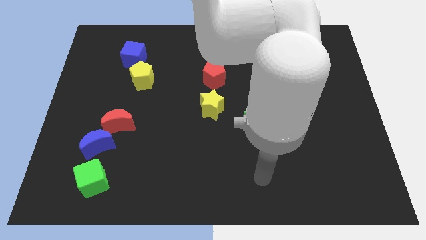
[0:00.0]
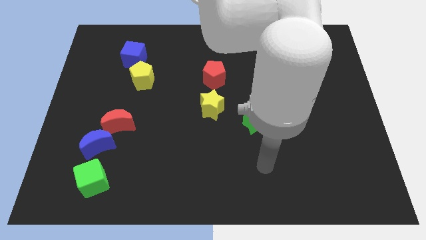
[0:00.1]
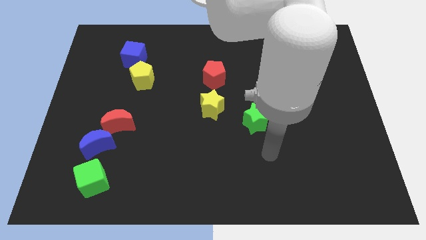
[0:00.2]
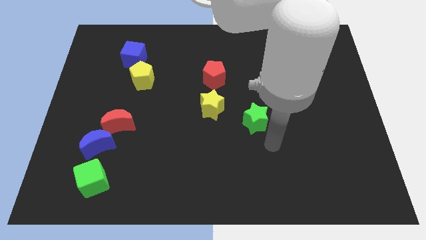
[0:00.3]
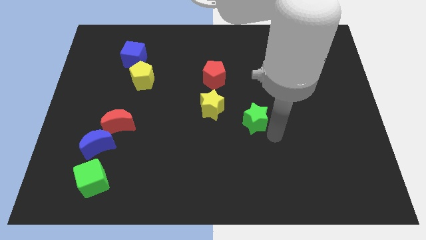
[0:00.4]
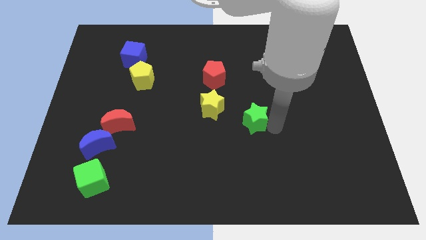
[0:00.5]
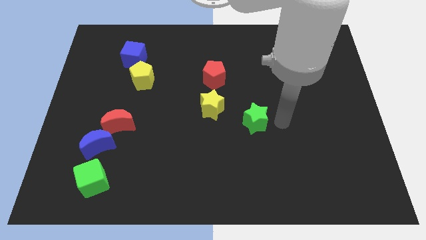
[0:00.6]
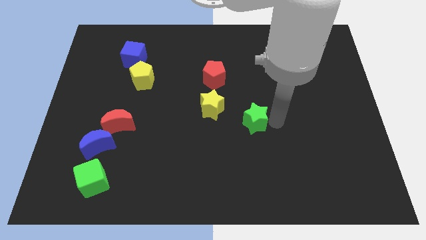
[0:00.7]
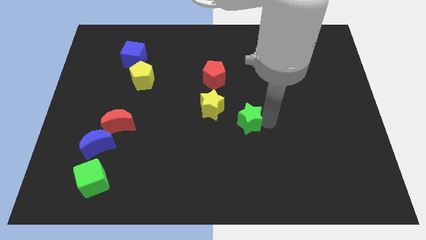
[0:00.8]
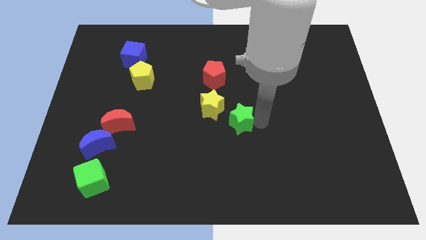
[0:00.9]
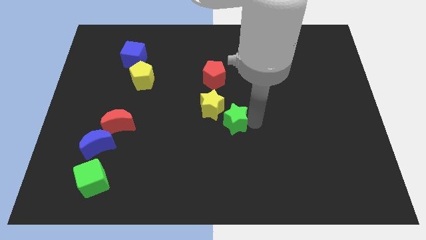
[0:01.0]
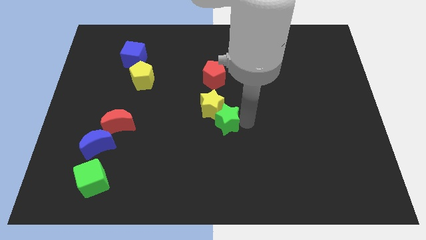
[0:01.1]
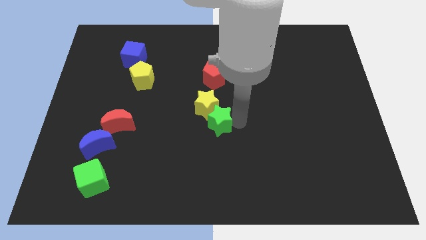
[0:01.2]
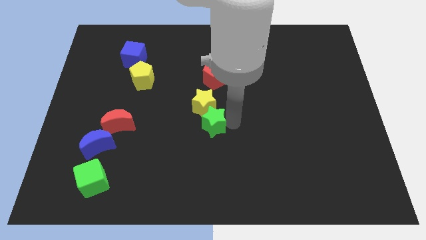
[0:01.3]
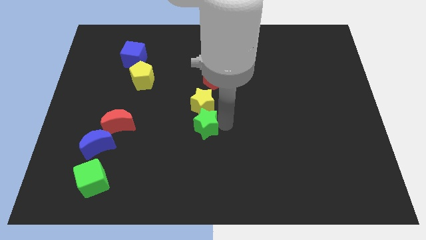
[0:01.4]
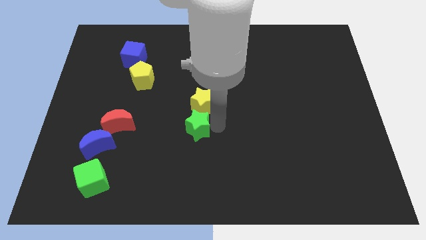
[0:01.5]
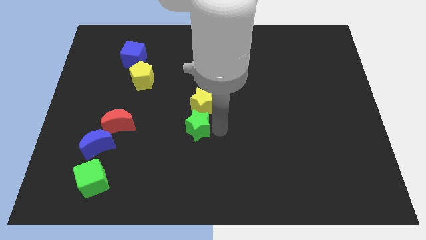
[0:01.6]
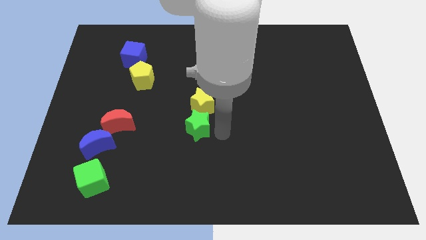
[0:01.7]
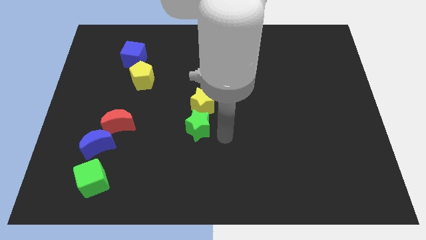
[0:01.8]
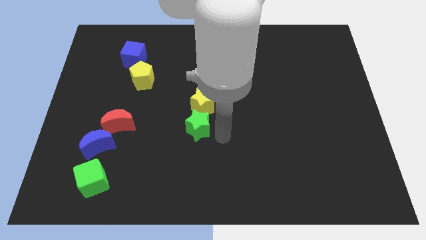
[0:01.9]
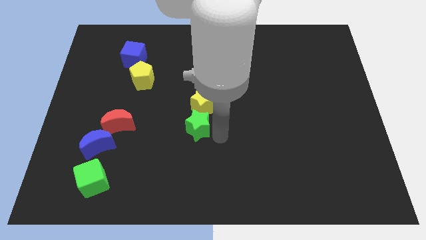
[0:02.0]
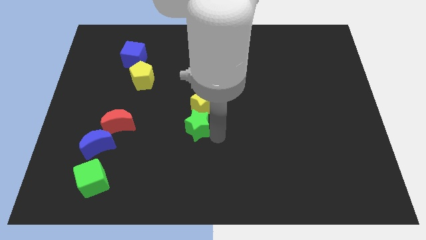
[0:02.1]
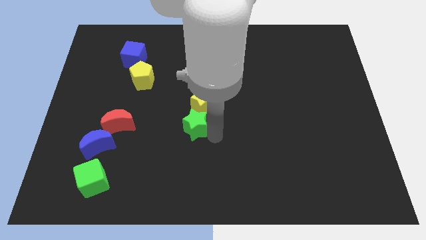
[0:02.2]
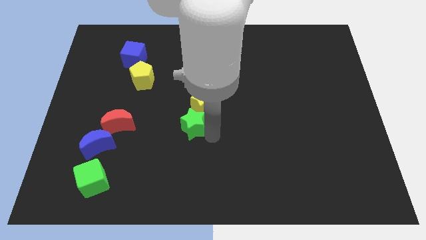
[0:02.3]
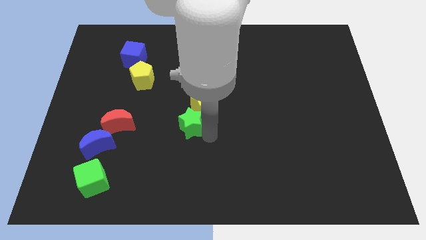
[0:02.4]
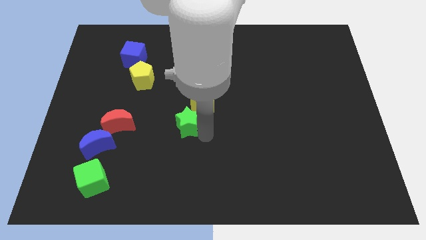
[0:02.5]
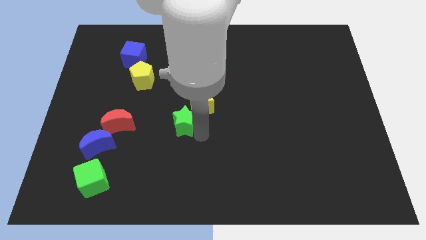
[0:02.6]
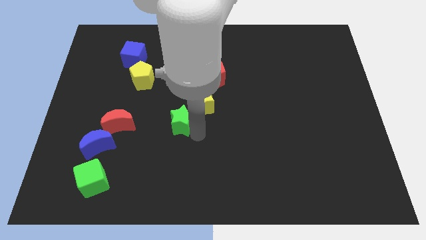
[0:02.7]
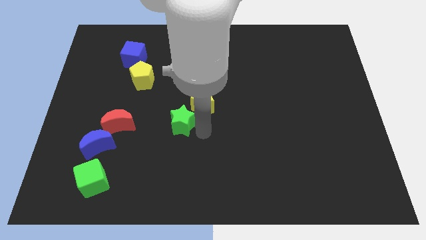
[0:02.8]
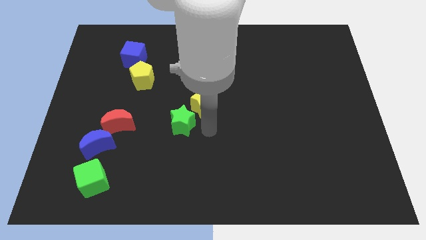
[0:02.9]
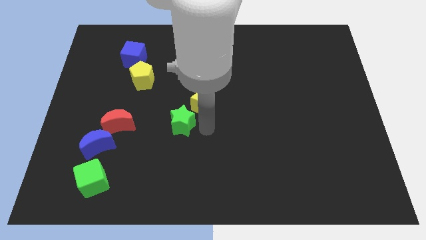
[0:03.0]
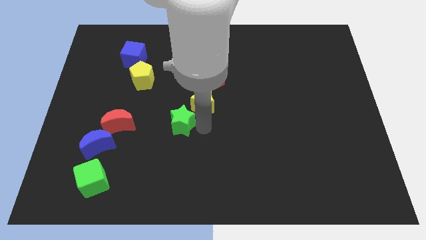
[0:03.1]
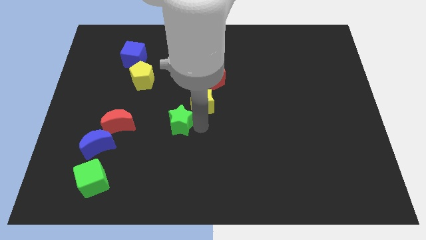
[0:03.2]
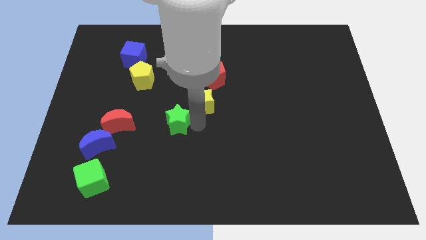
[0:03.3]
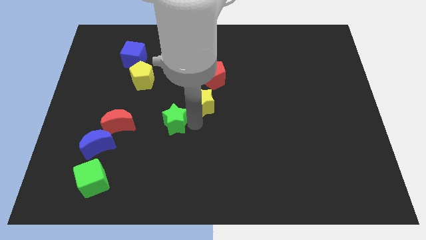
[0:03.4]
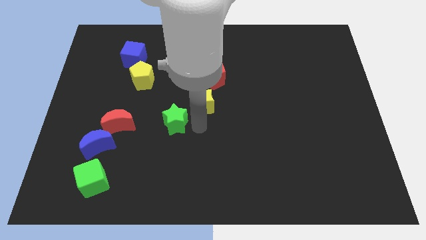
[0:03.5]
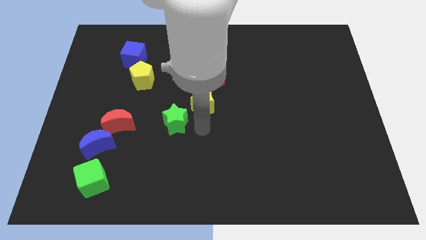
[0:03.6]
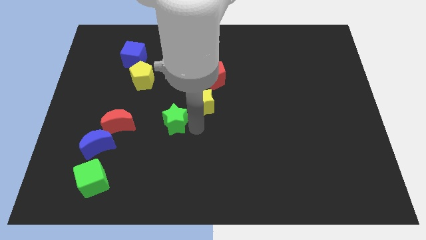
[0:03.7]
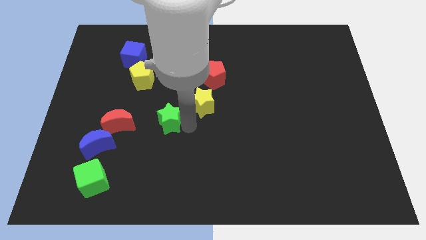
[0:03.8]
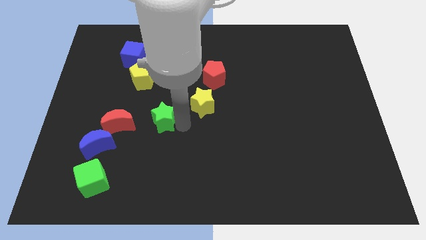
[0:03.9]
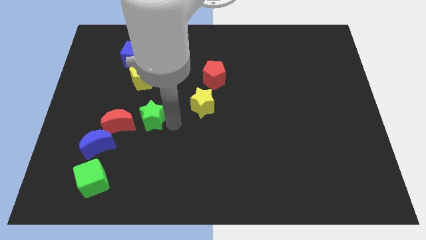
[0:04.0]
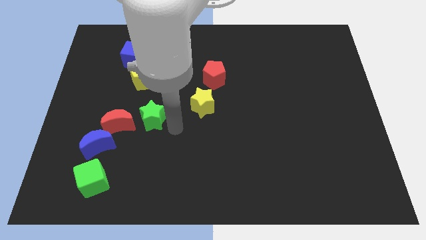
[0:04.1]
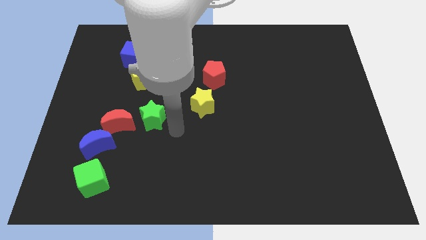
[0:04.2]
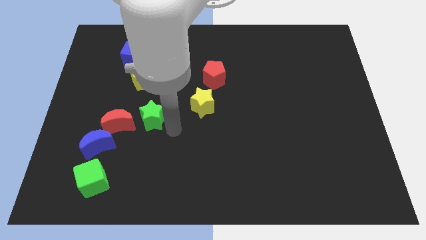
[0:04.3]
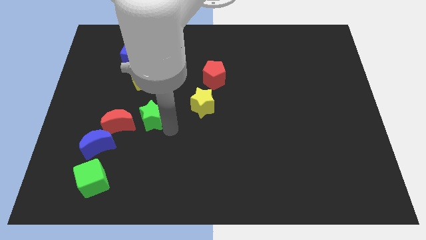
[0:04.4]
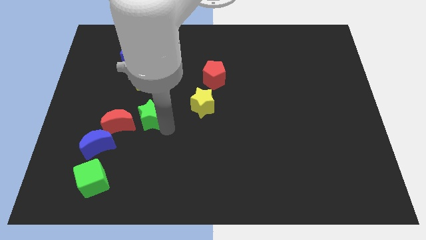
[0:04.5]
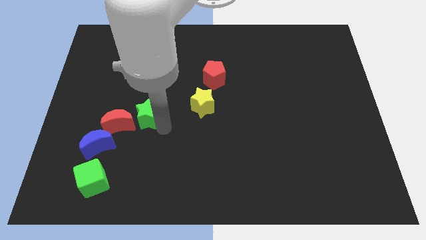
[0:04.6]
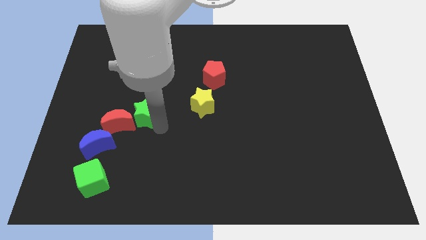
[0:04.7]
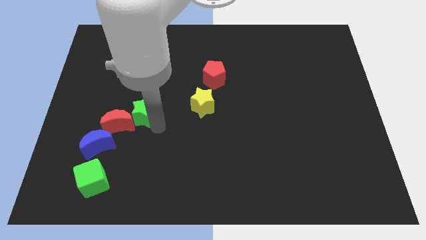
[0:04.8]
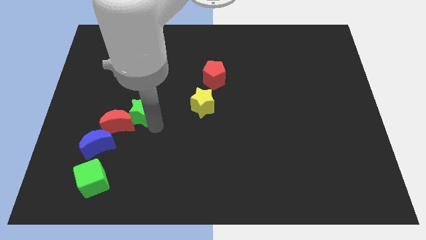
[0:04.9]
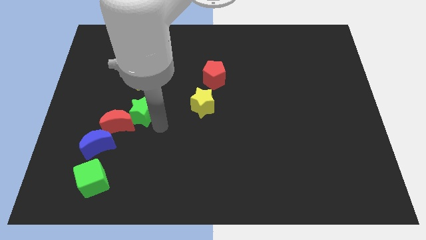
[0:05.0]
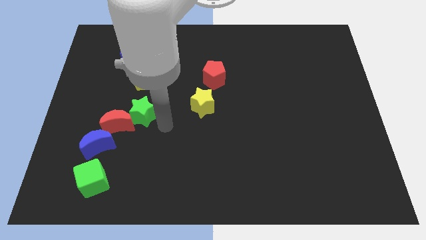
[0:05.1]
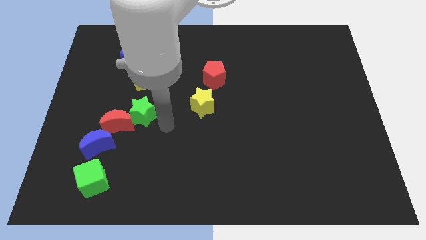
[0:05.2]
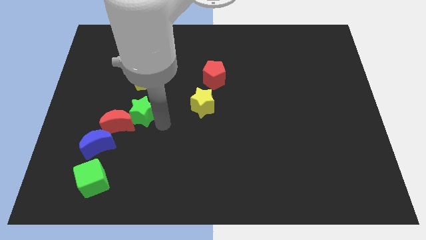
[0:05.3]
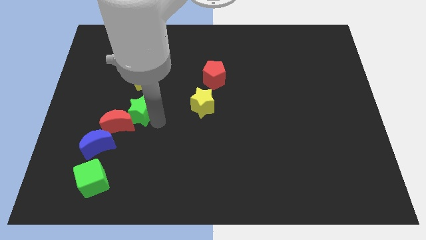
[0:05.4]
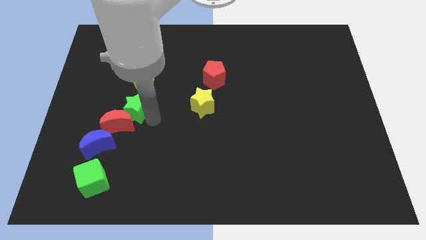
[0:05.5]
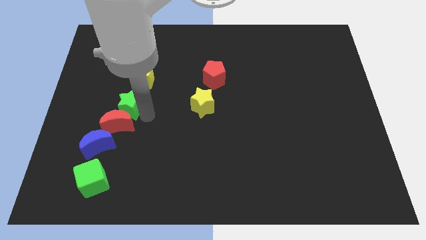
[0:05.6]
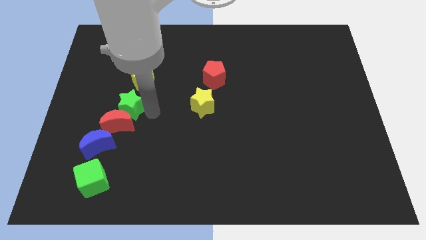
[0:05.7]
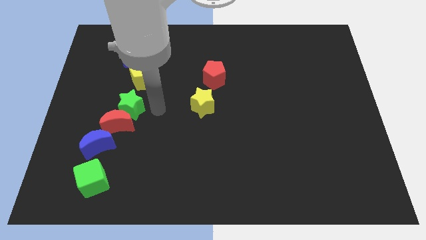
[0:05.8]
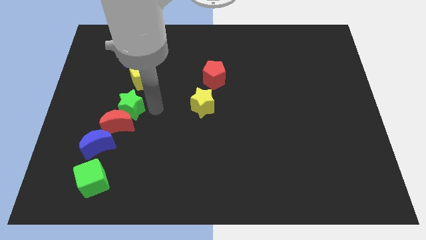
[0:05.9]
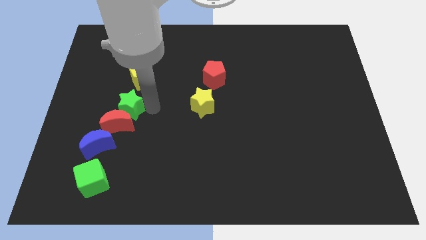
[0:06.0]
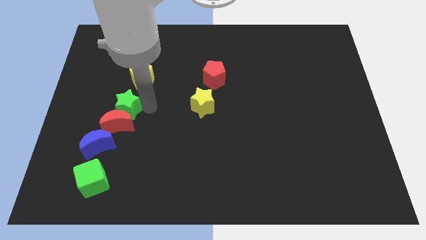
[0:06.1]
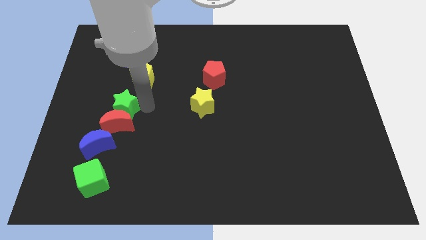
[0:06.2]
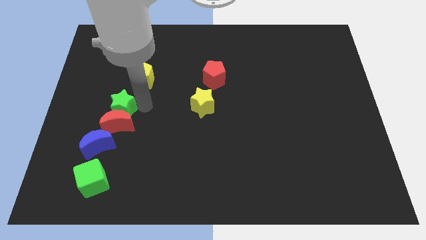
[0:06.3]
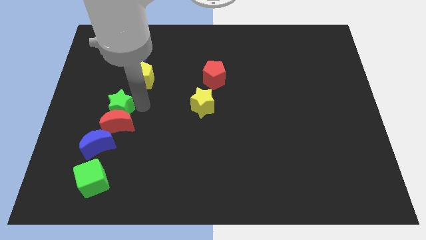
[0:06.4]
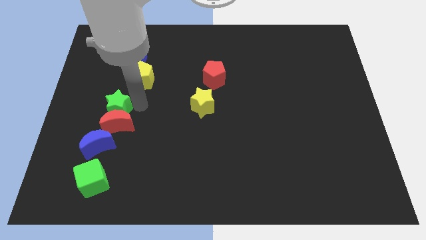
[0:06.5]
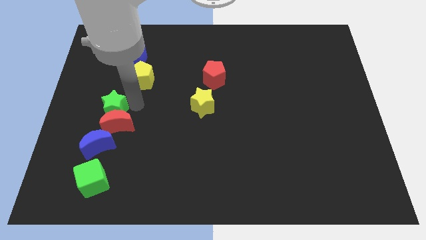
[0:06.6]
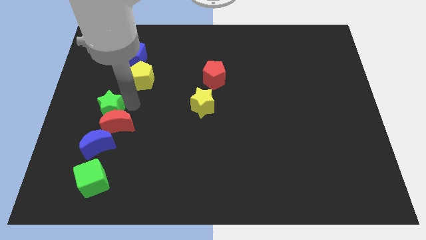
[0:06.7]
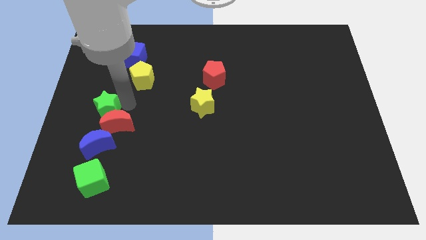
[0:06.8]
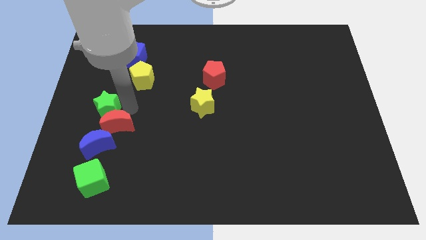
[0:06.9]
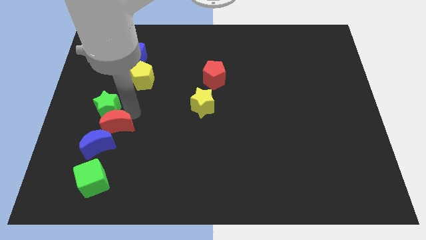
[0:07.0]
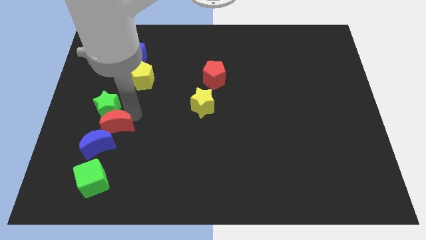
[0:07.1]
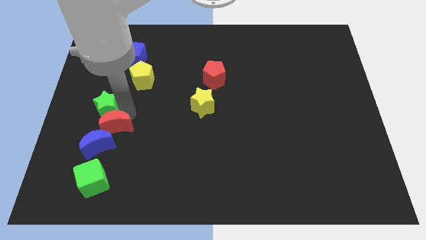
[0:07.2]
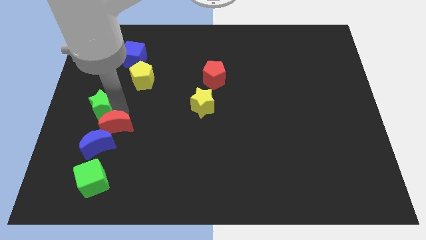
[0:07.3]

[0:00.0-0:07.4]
push the green star to the left side of the board

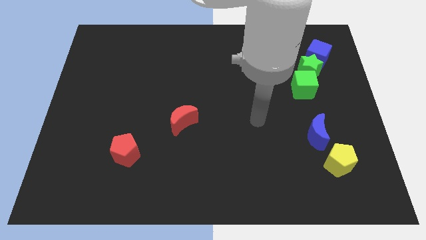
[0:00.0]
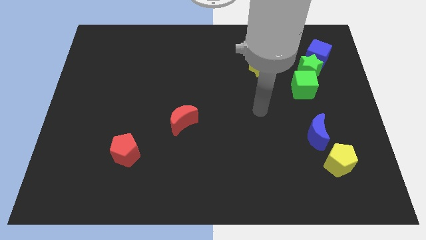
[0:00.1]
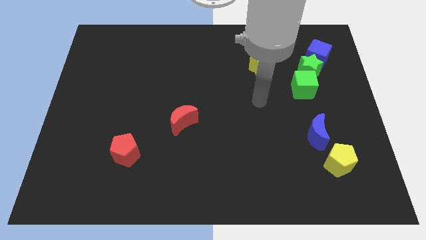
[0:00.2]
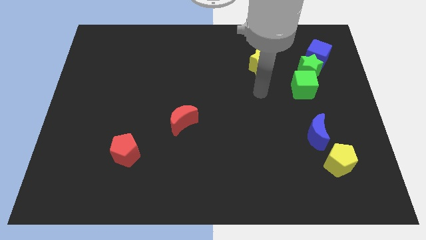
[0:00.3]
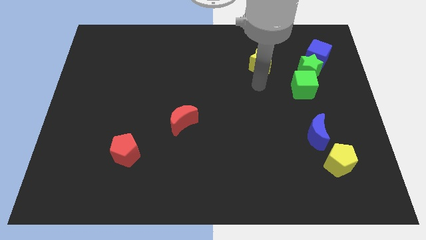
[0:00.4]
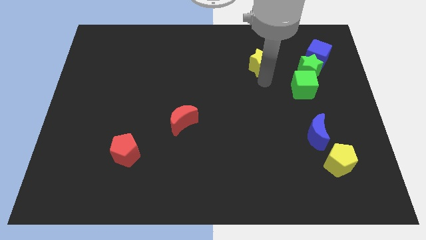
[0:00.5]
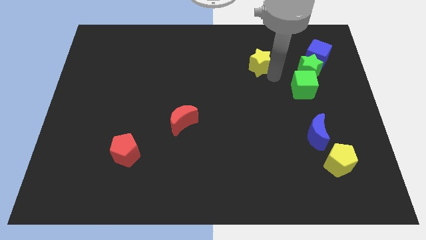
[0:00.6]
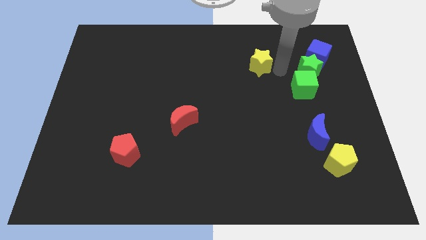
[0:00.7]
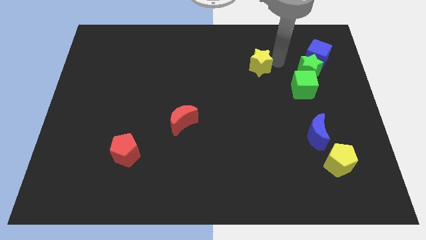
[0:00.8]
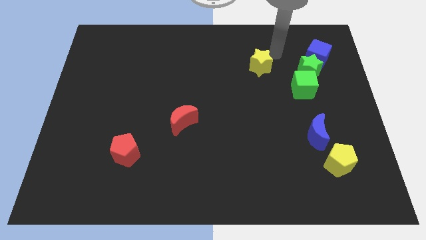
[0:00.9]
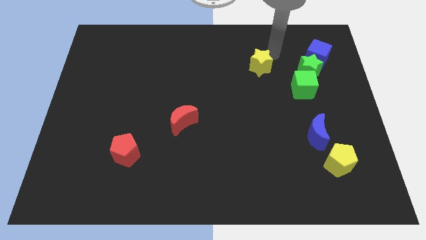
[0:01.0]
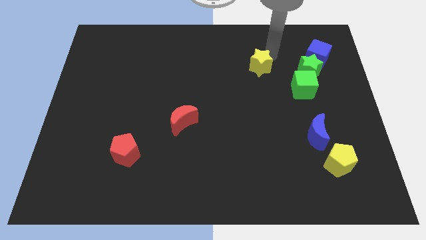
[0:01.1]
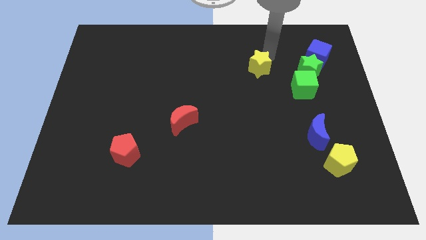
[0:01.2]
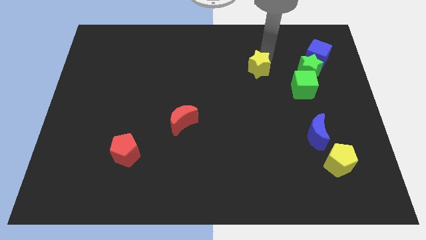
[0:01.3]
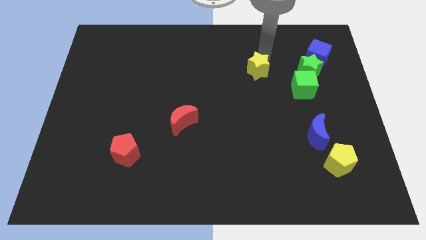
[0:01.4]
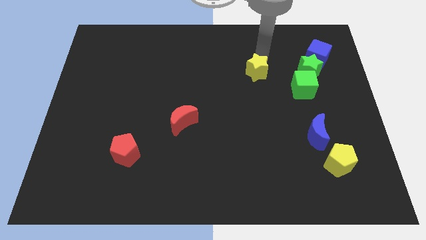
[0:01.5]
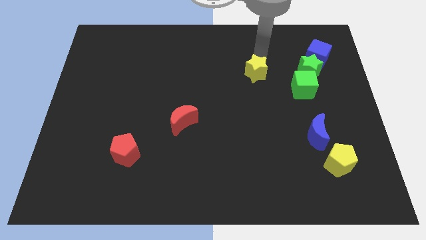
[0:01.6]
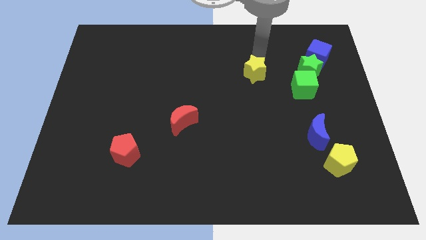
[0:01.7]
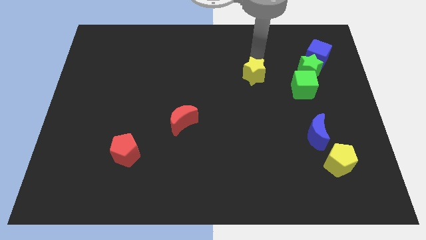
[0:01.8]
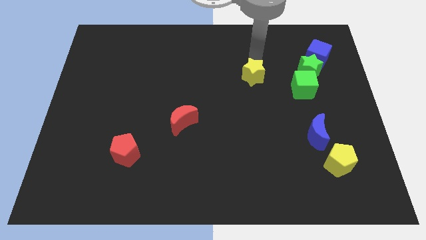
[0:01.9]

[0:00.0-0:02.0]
slide the yellow star to the middle
